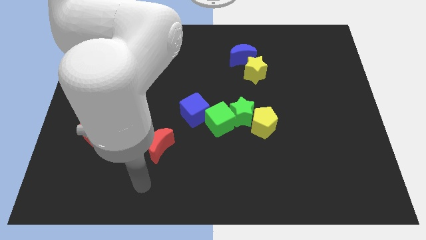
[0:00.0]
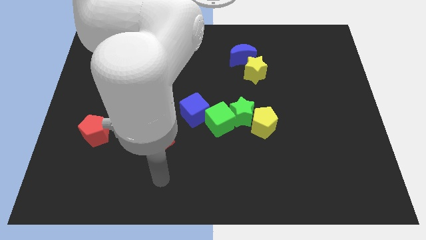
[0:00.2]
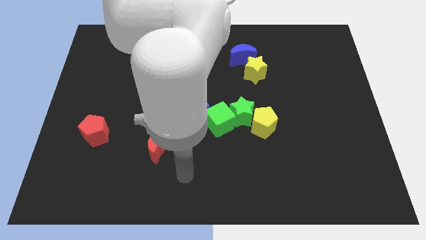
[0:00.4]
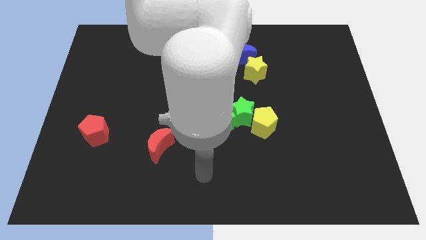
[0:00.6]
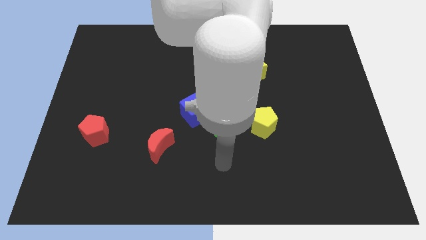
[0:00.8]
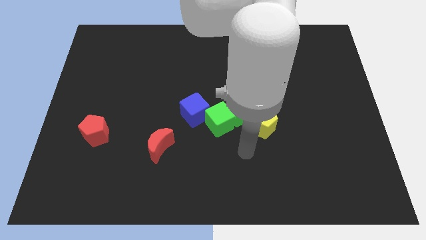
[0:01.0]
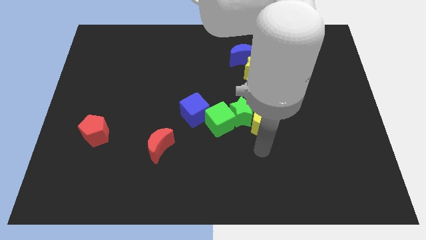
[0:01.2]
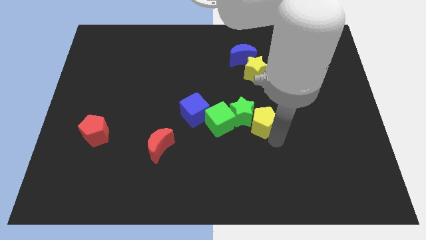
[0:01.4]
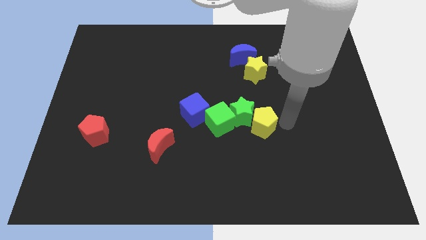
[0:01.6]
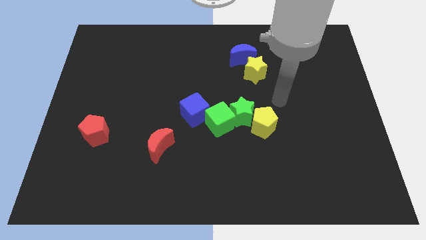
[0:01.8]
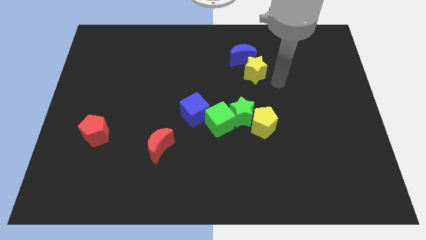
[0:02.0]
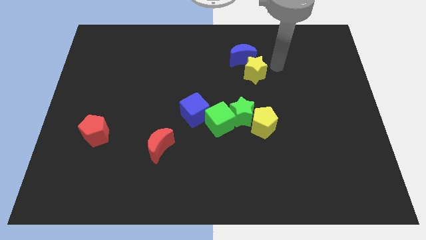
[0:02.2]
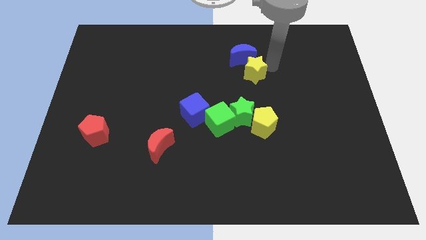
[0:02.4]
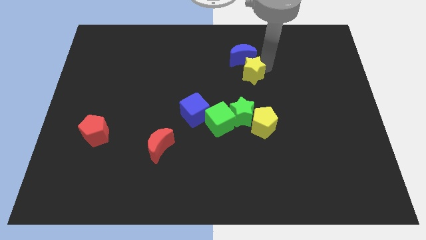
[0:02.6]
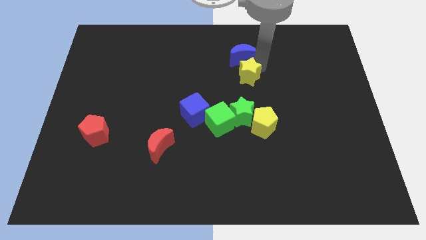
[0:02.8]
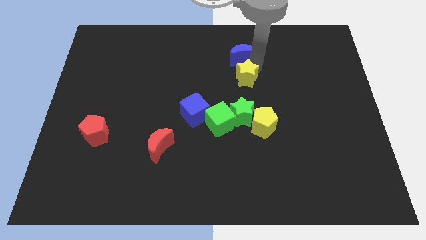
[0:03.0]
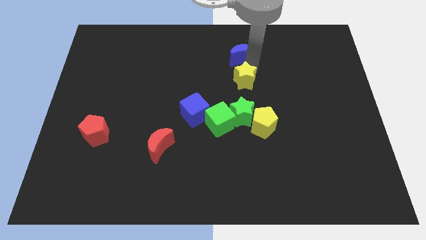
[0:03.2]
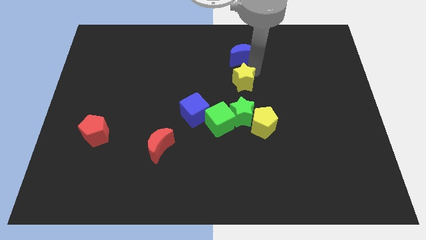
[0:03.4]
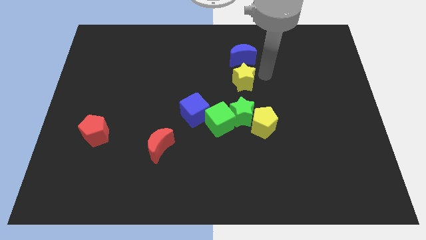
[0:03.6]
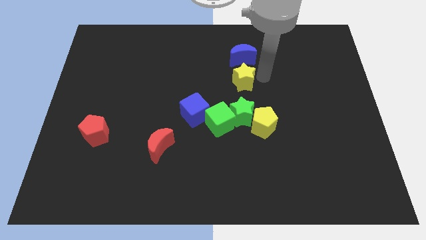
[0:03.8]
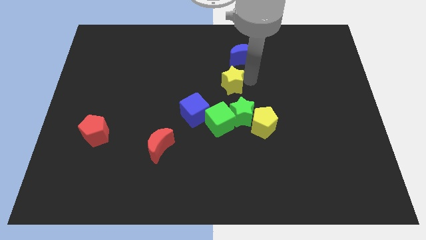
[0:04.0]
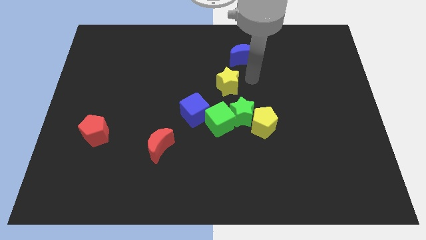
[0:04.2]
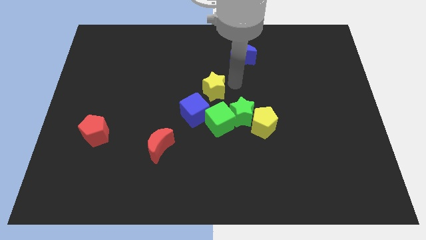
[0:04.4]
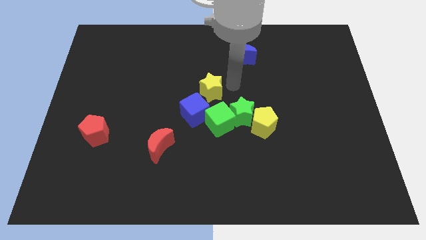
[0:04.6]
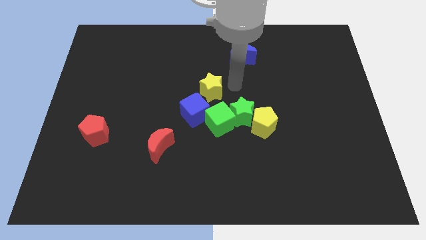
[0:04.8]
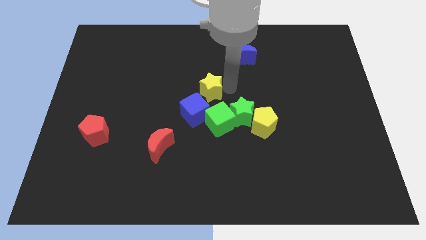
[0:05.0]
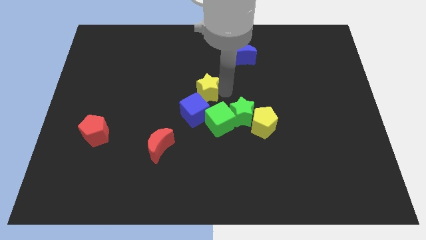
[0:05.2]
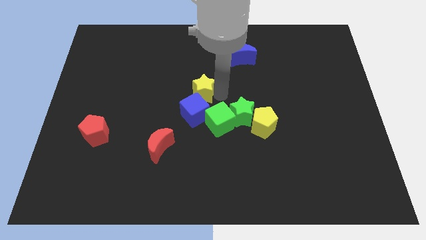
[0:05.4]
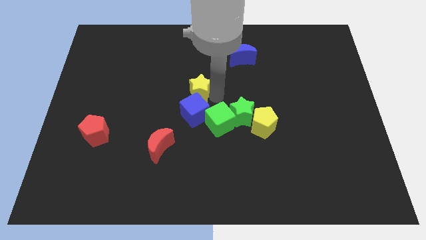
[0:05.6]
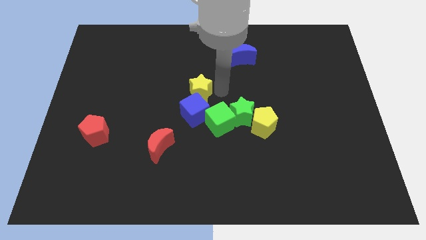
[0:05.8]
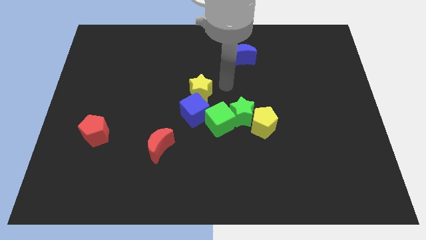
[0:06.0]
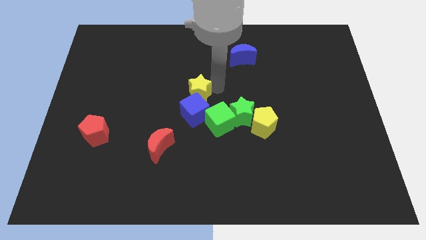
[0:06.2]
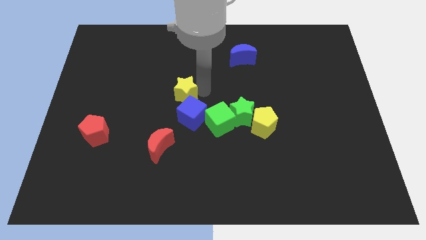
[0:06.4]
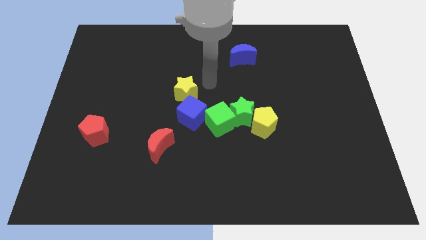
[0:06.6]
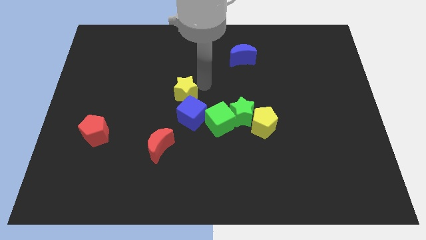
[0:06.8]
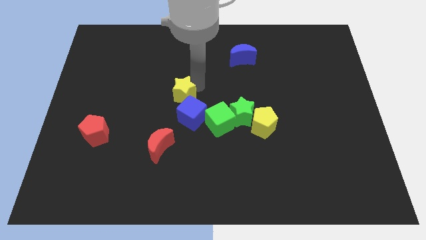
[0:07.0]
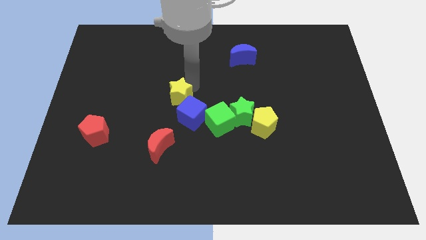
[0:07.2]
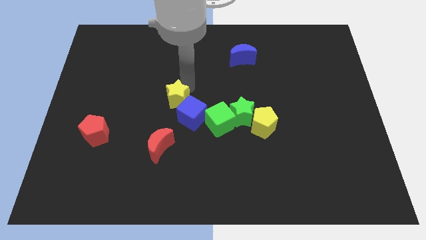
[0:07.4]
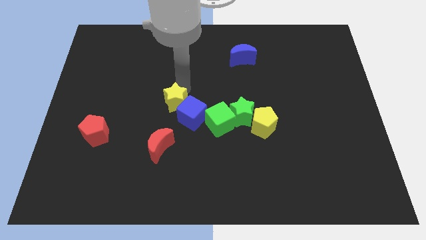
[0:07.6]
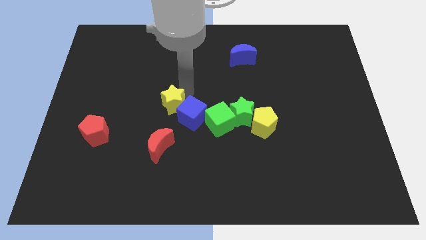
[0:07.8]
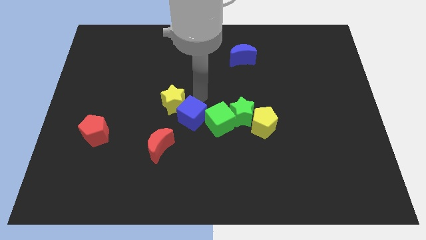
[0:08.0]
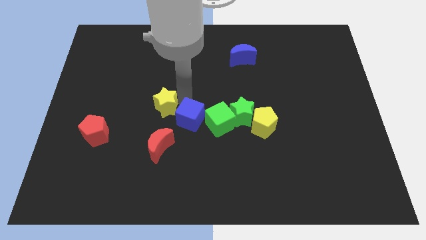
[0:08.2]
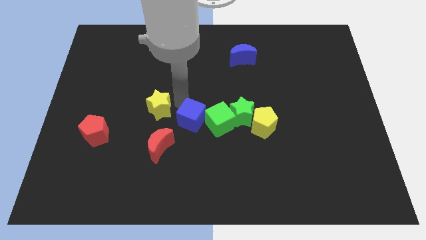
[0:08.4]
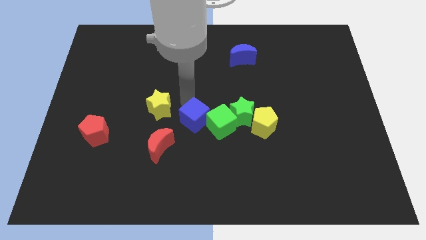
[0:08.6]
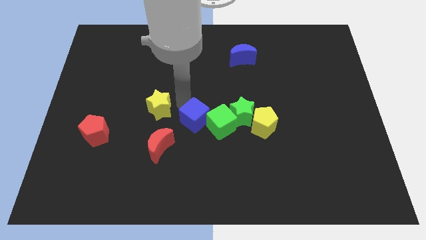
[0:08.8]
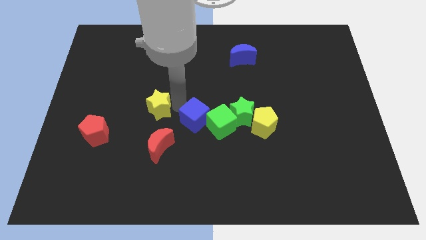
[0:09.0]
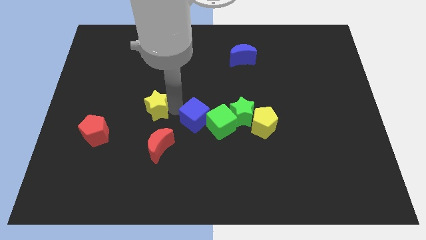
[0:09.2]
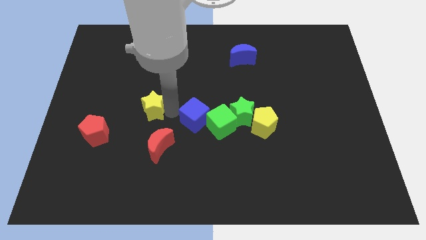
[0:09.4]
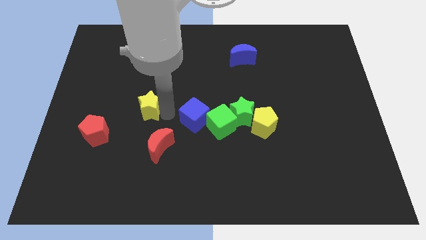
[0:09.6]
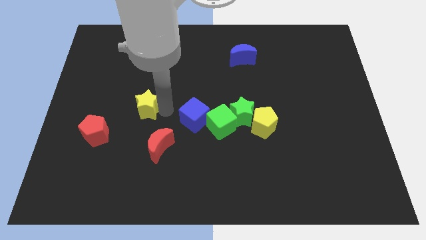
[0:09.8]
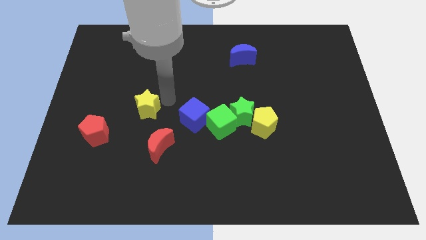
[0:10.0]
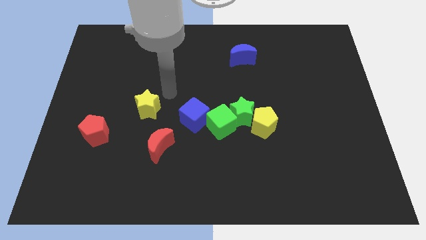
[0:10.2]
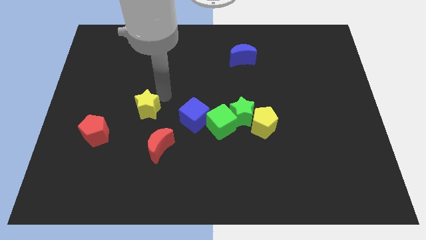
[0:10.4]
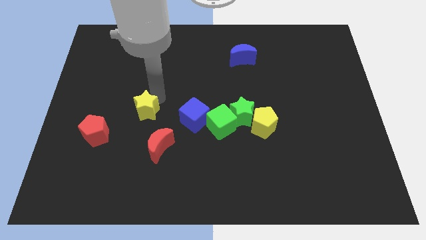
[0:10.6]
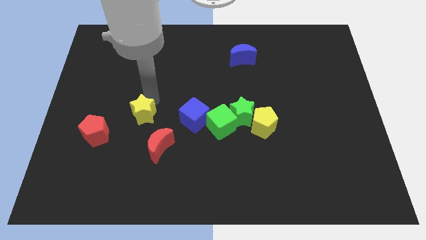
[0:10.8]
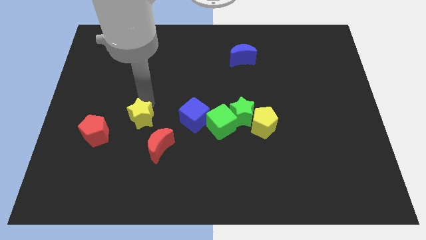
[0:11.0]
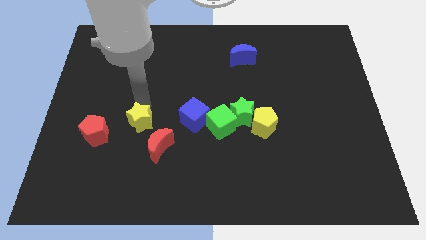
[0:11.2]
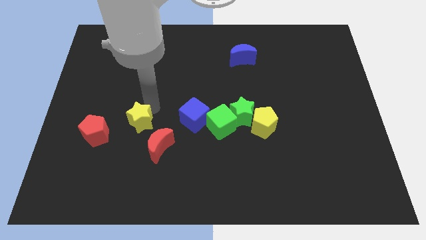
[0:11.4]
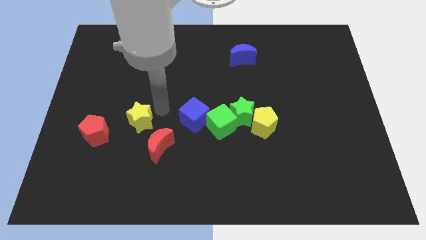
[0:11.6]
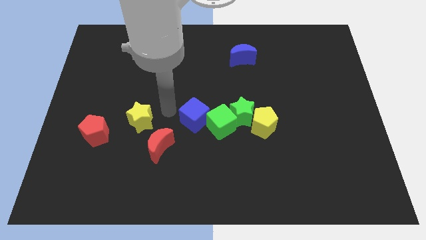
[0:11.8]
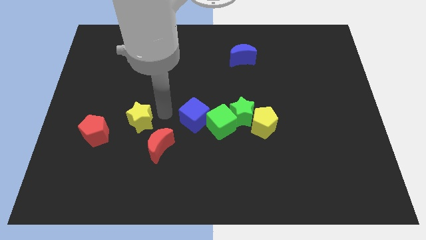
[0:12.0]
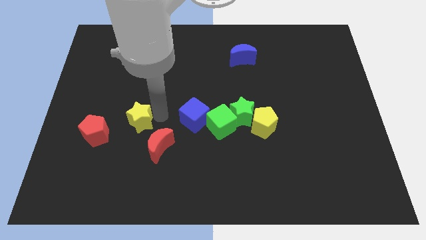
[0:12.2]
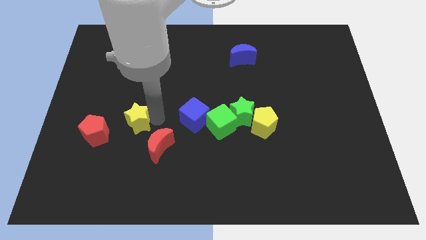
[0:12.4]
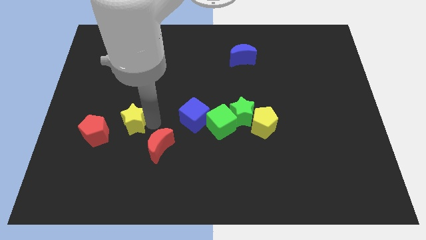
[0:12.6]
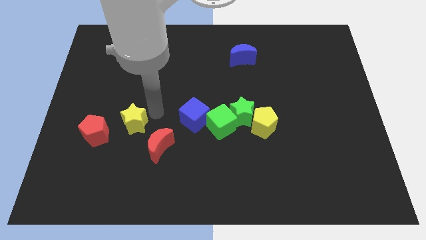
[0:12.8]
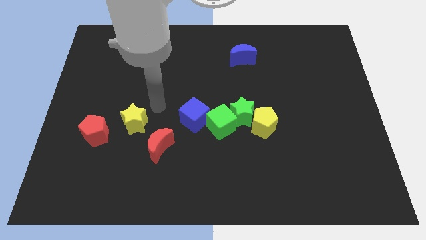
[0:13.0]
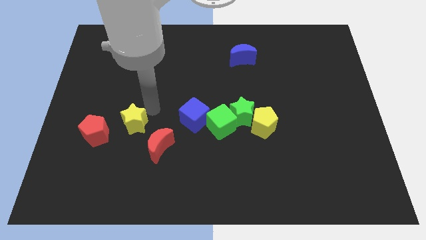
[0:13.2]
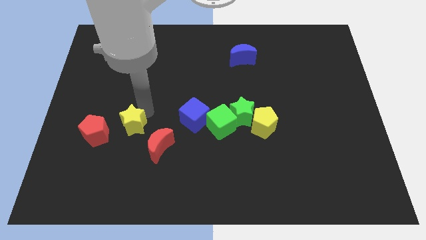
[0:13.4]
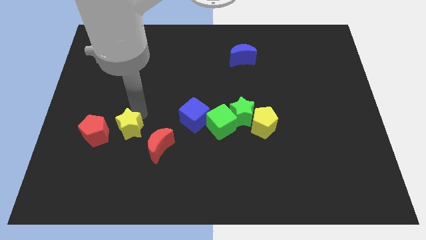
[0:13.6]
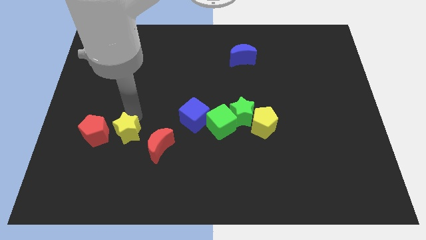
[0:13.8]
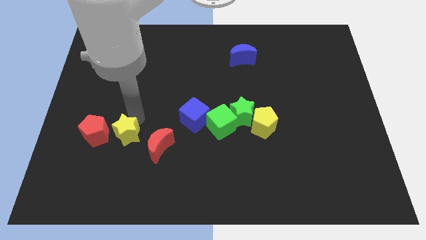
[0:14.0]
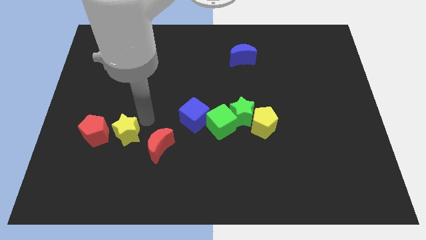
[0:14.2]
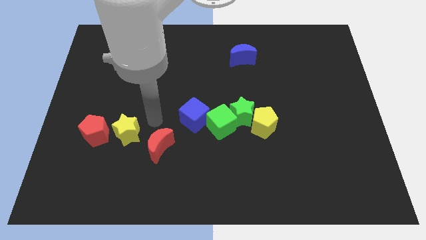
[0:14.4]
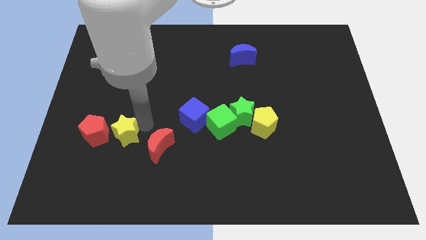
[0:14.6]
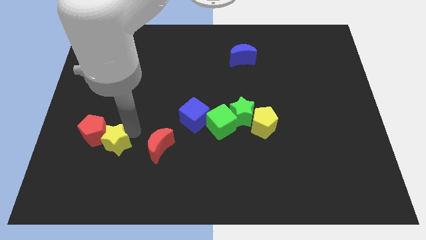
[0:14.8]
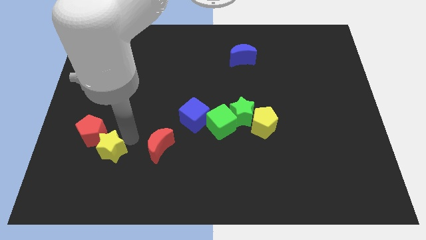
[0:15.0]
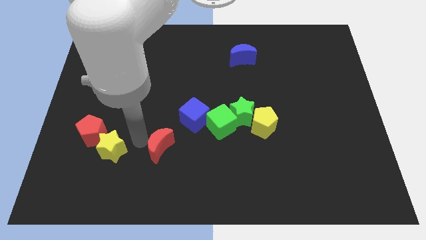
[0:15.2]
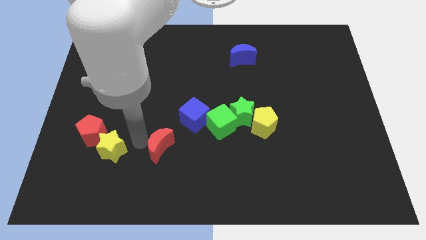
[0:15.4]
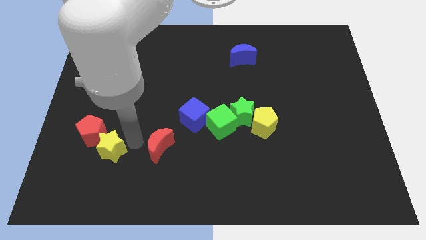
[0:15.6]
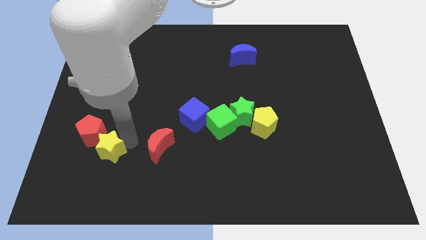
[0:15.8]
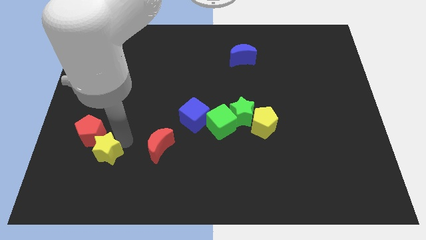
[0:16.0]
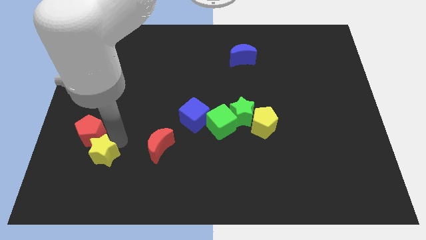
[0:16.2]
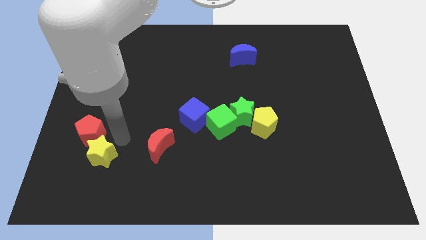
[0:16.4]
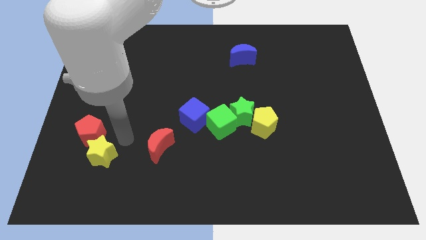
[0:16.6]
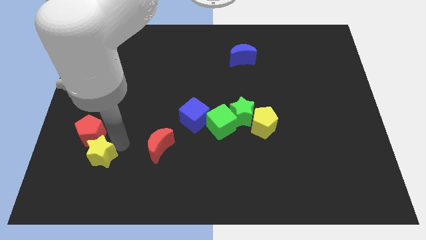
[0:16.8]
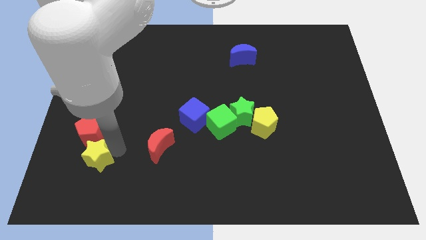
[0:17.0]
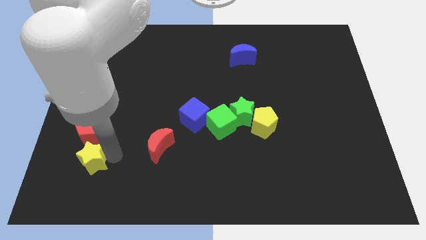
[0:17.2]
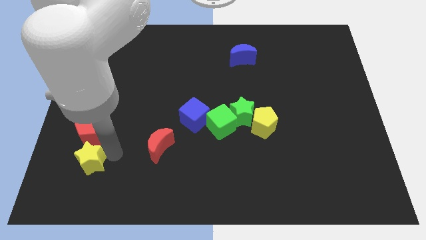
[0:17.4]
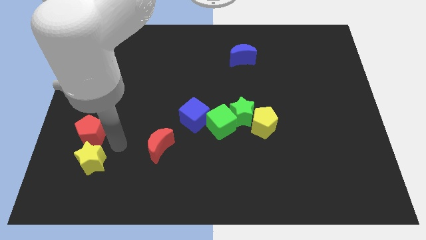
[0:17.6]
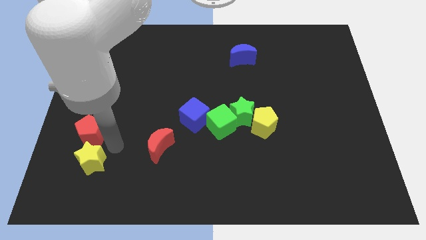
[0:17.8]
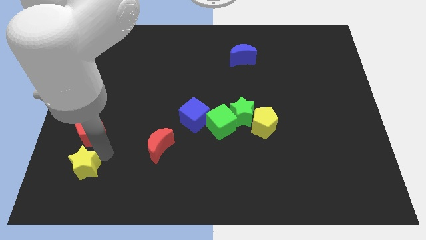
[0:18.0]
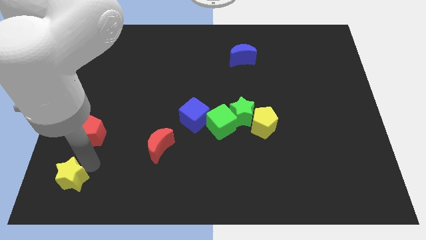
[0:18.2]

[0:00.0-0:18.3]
put the yellow star to the lower left corner
